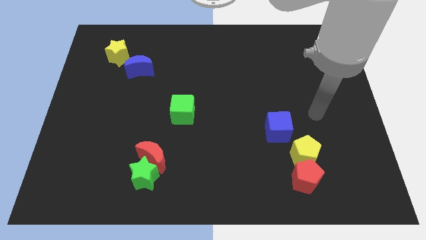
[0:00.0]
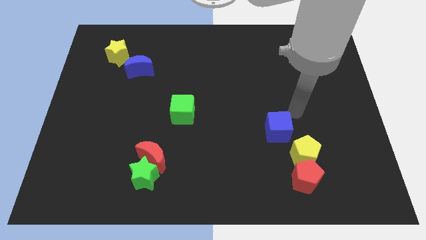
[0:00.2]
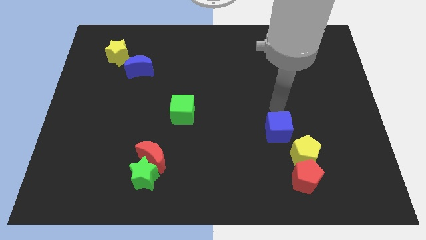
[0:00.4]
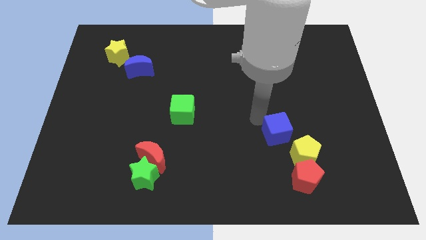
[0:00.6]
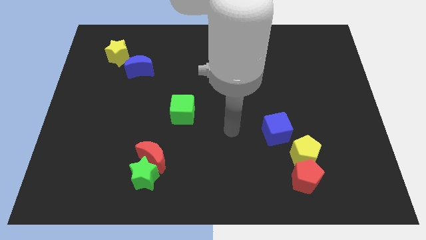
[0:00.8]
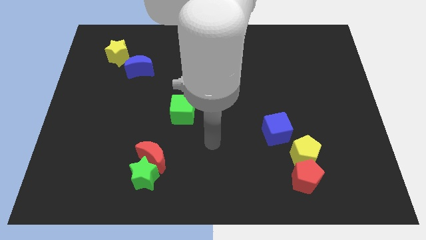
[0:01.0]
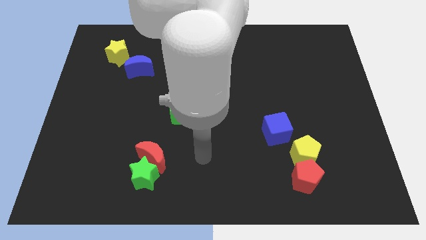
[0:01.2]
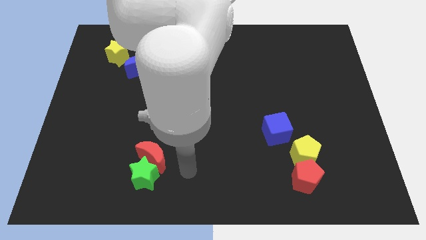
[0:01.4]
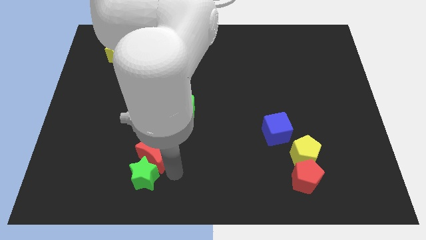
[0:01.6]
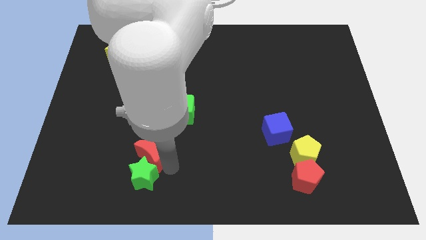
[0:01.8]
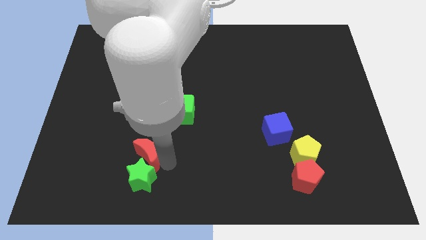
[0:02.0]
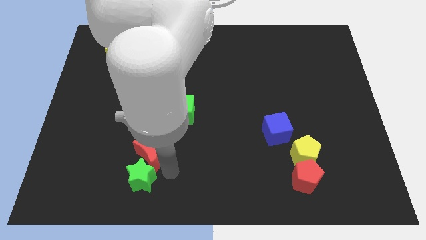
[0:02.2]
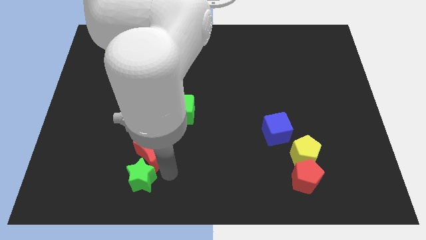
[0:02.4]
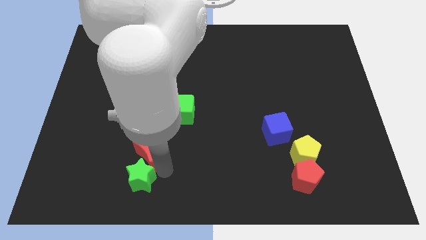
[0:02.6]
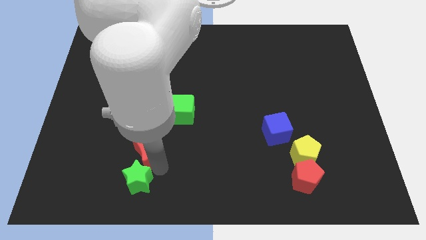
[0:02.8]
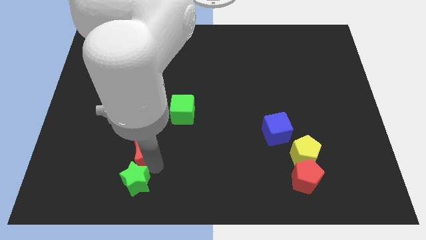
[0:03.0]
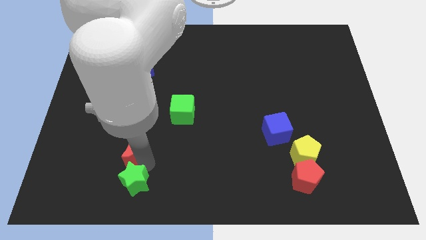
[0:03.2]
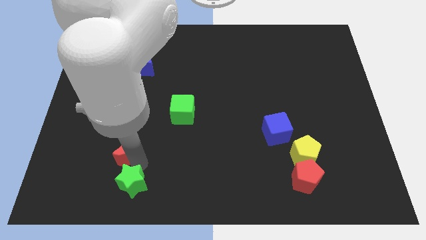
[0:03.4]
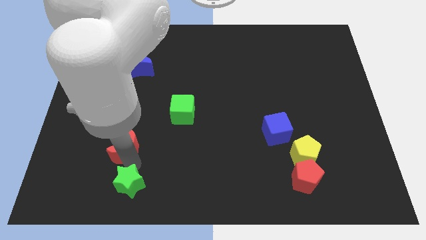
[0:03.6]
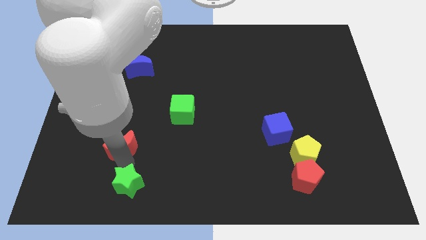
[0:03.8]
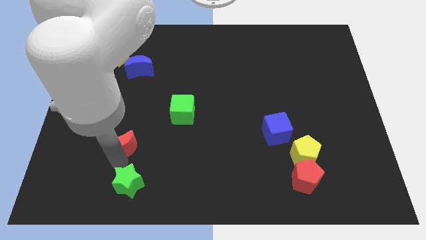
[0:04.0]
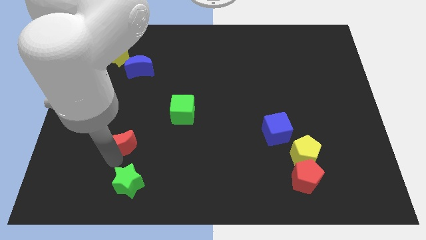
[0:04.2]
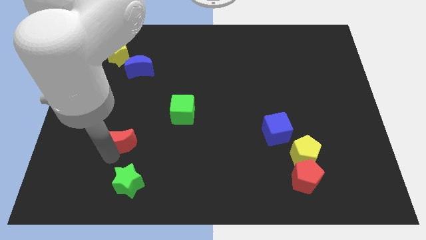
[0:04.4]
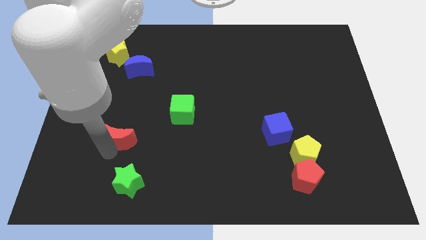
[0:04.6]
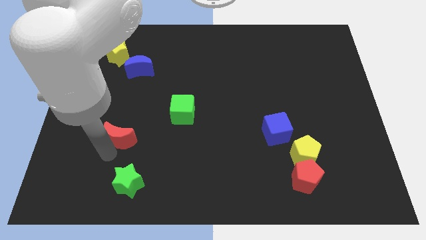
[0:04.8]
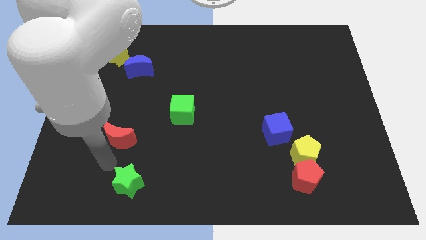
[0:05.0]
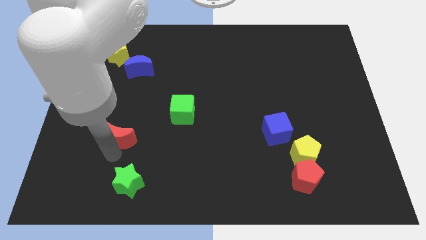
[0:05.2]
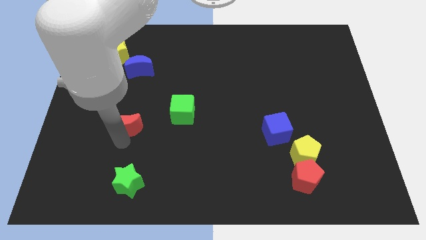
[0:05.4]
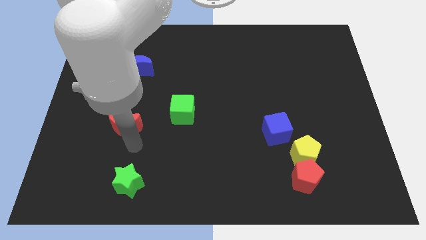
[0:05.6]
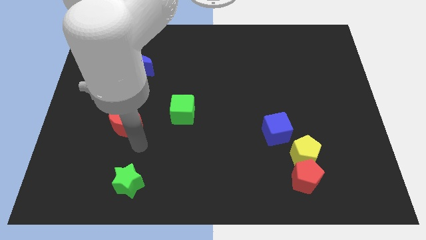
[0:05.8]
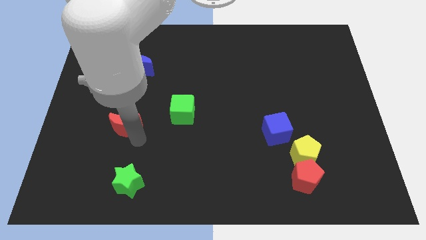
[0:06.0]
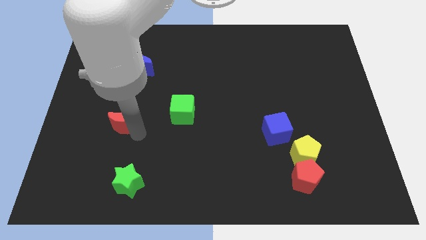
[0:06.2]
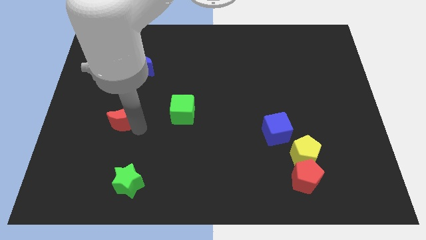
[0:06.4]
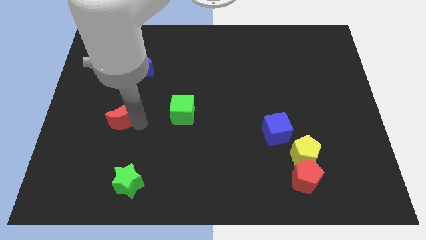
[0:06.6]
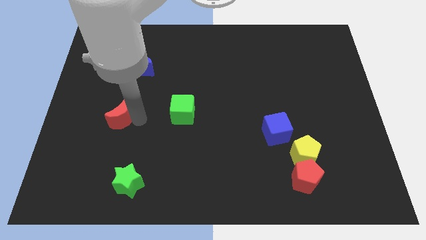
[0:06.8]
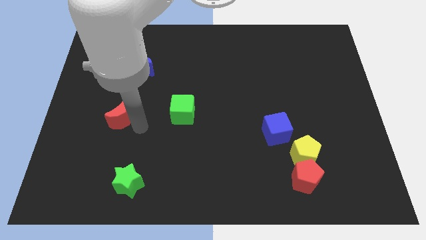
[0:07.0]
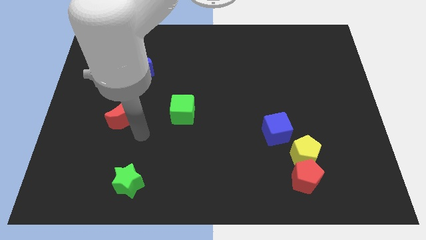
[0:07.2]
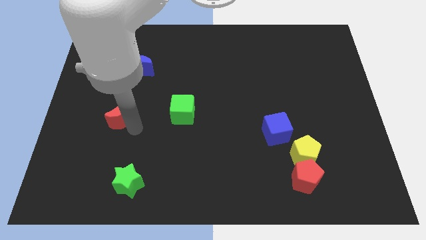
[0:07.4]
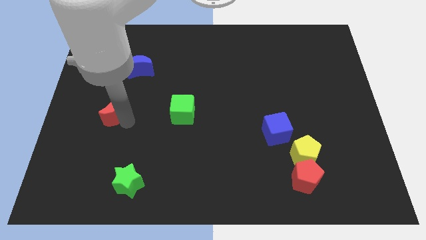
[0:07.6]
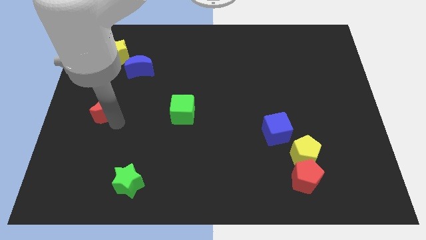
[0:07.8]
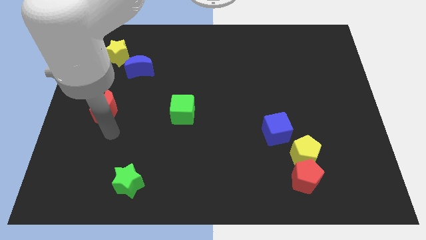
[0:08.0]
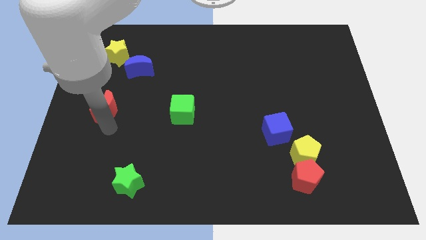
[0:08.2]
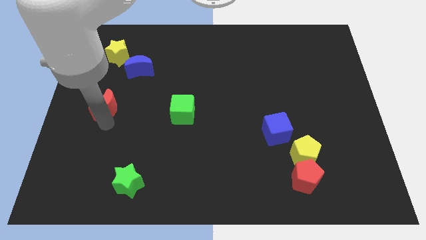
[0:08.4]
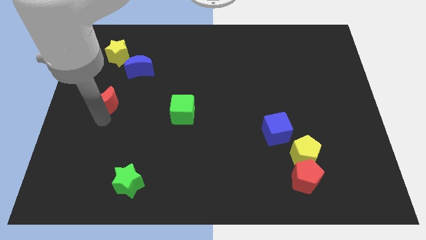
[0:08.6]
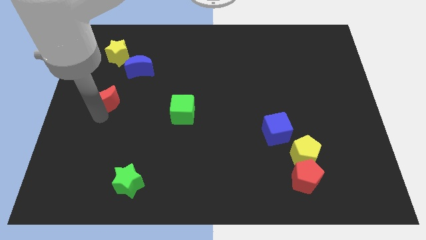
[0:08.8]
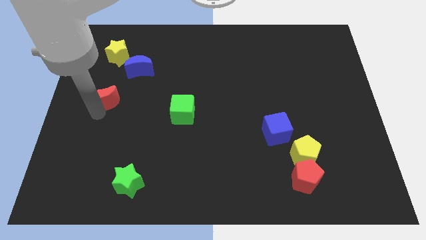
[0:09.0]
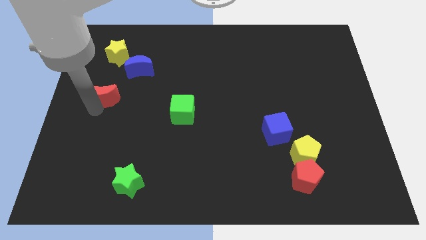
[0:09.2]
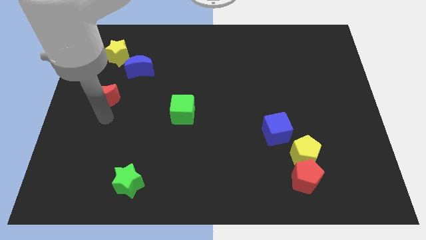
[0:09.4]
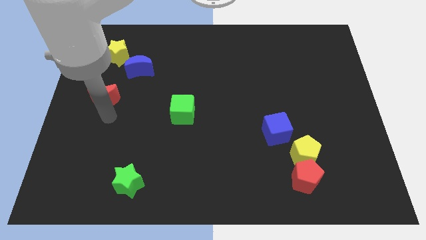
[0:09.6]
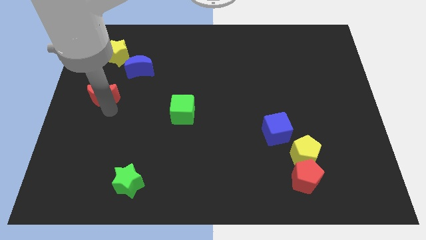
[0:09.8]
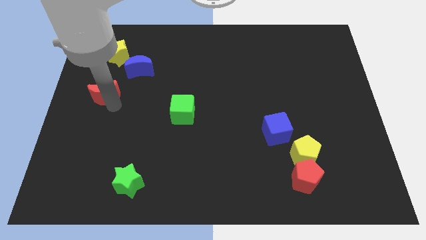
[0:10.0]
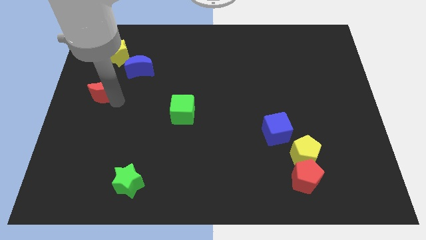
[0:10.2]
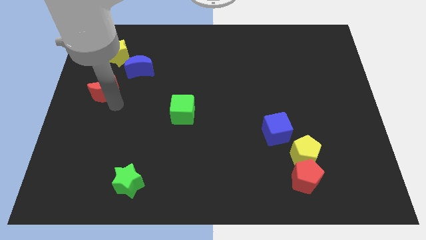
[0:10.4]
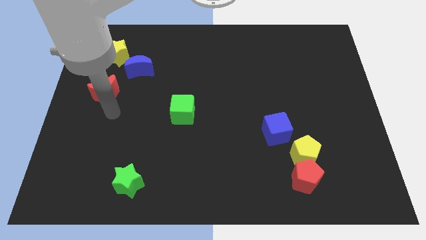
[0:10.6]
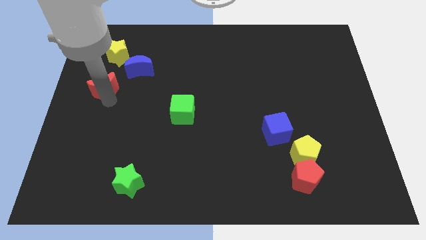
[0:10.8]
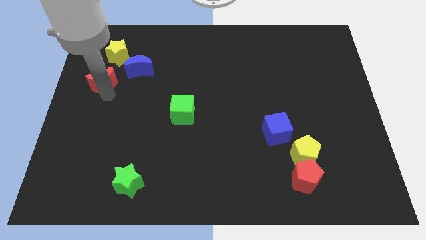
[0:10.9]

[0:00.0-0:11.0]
move the red moon to the left of the blue moon

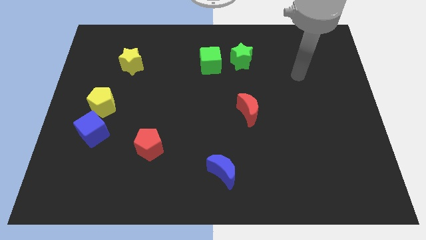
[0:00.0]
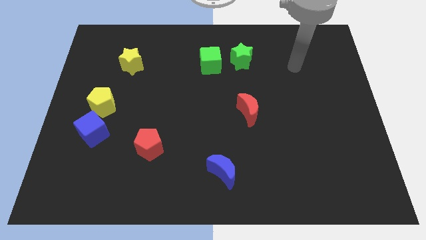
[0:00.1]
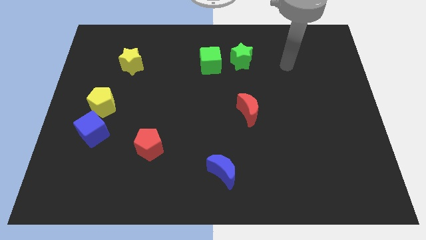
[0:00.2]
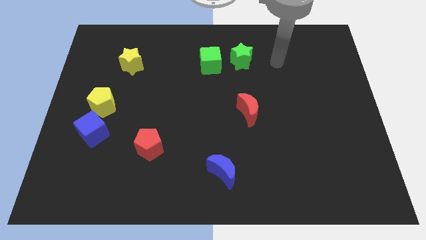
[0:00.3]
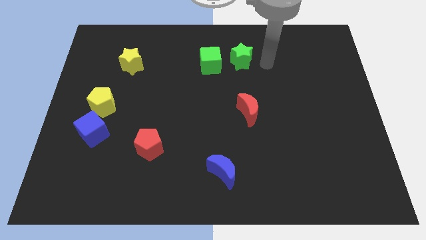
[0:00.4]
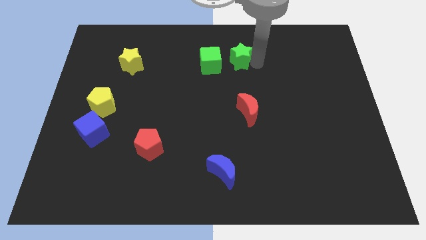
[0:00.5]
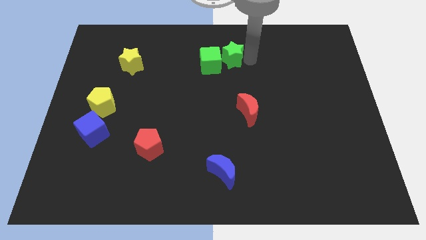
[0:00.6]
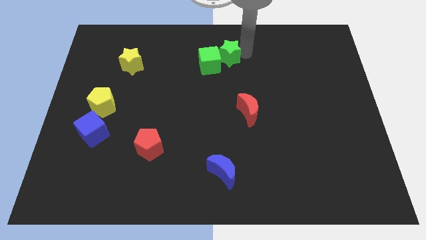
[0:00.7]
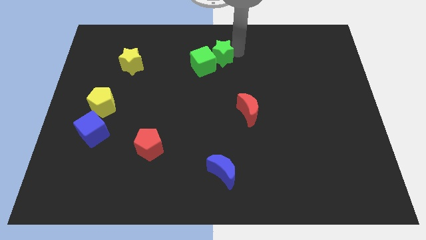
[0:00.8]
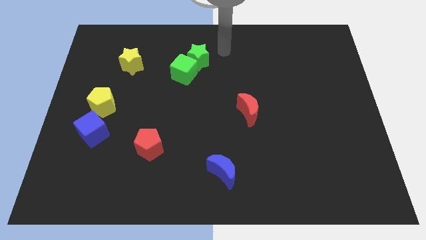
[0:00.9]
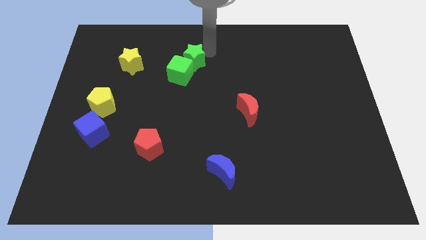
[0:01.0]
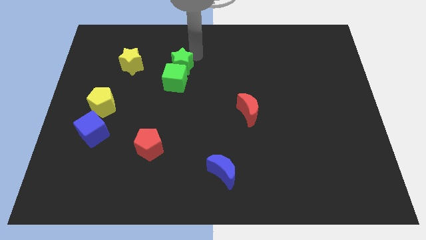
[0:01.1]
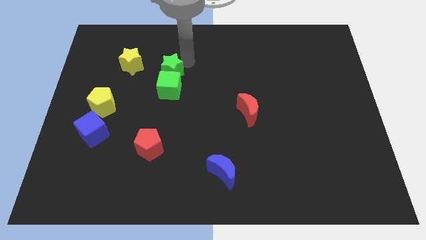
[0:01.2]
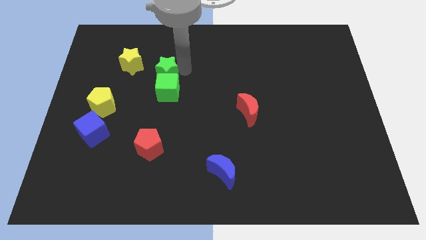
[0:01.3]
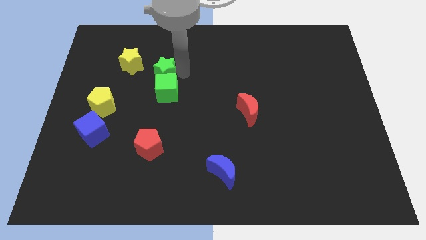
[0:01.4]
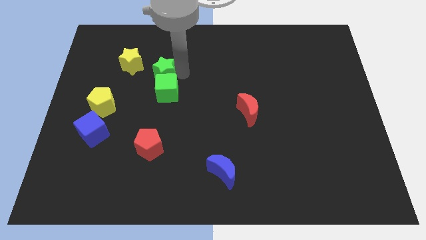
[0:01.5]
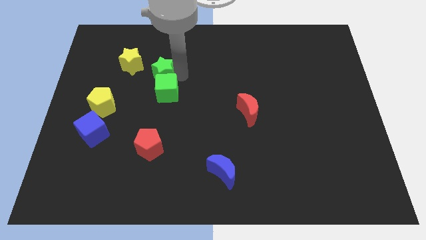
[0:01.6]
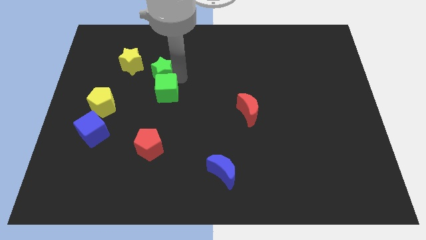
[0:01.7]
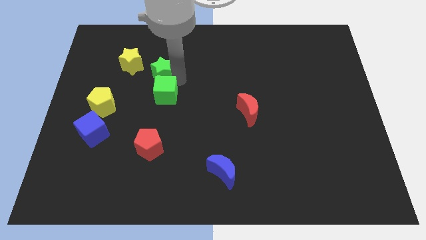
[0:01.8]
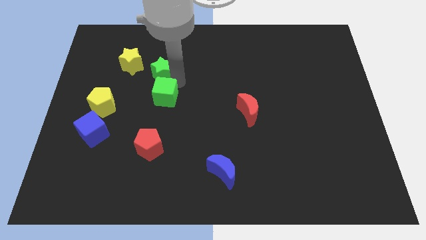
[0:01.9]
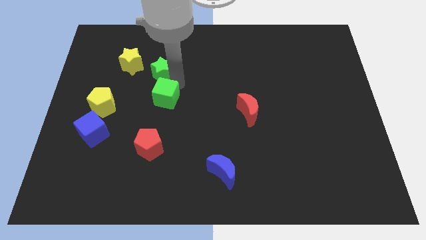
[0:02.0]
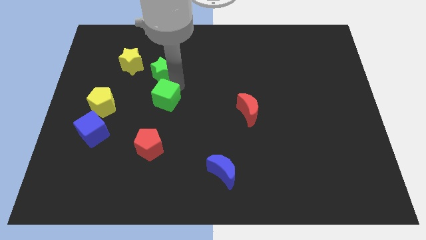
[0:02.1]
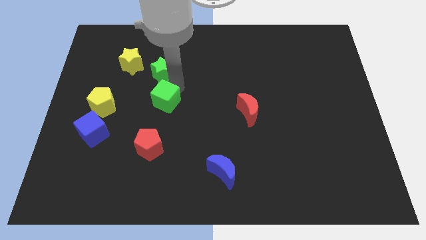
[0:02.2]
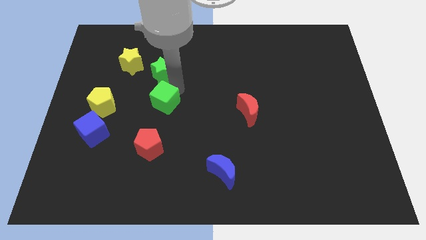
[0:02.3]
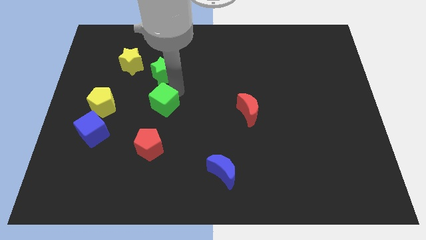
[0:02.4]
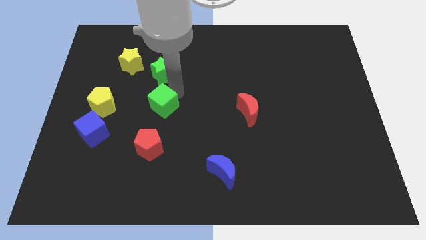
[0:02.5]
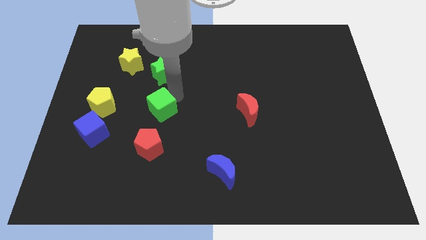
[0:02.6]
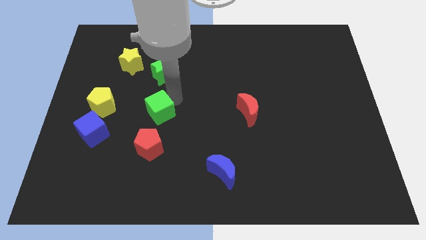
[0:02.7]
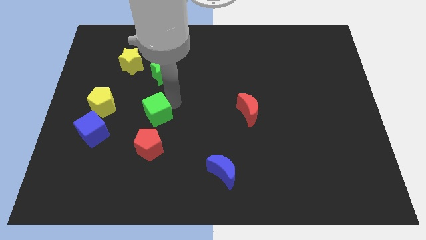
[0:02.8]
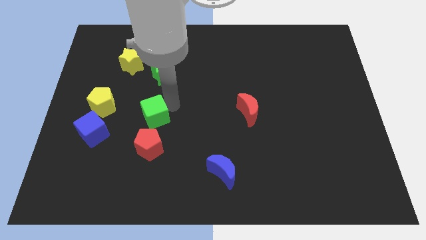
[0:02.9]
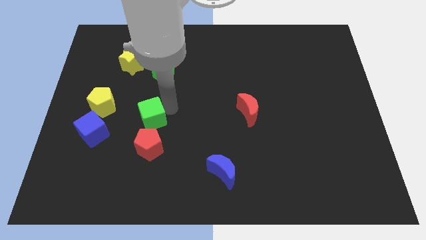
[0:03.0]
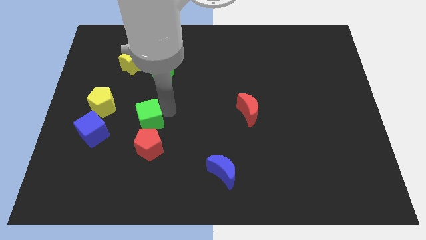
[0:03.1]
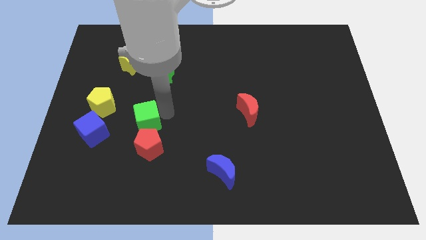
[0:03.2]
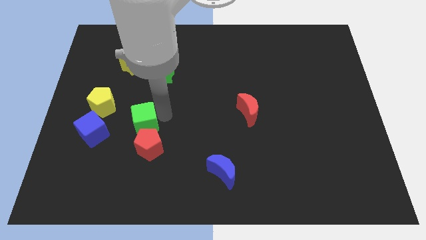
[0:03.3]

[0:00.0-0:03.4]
slide the green cube diagonally down and to the right of the yellow pentagon
